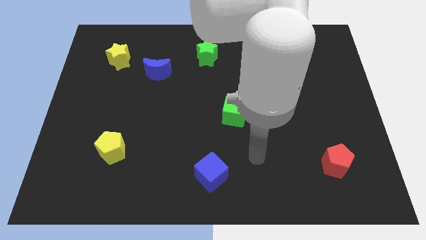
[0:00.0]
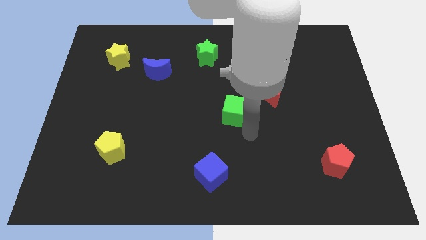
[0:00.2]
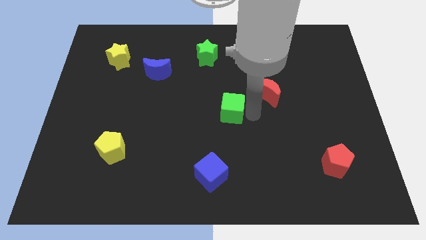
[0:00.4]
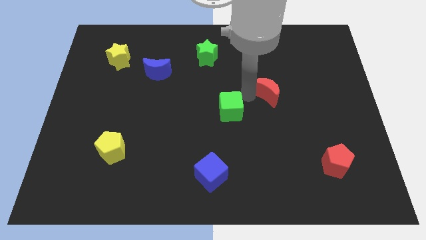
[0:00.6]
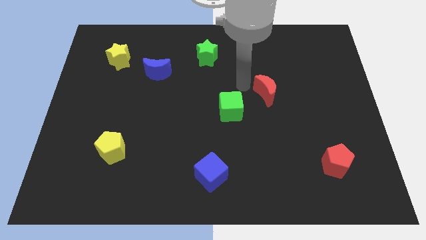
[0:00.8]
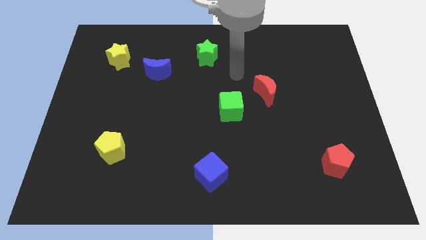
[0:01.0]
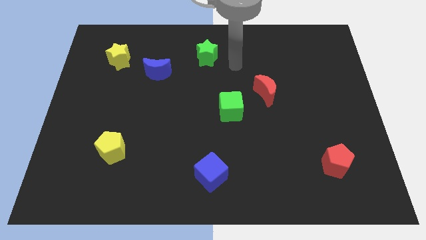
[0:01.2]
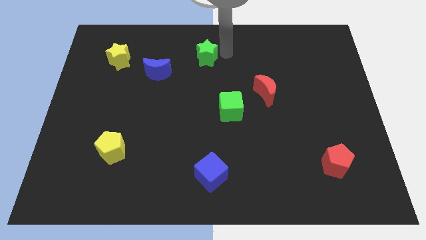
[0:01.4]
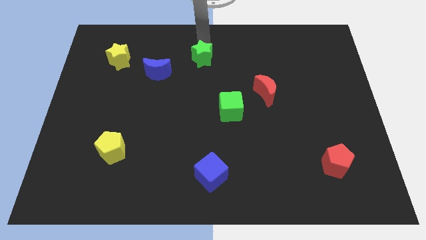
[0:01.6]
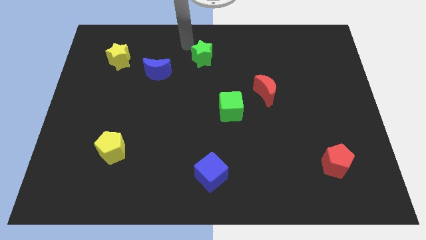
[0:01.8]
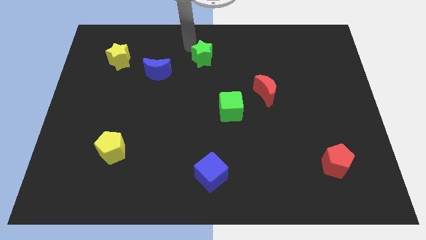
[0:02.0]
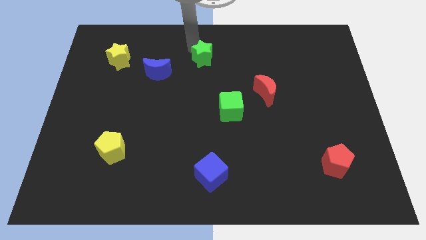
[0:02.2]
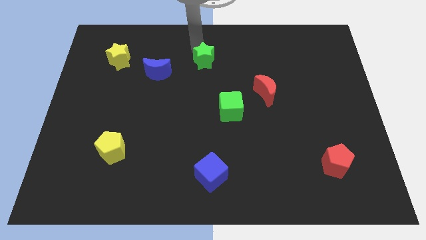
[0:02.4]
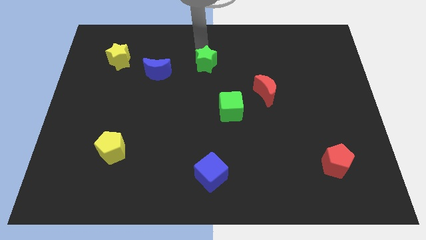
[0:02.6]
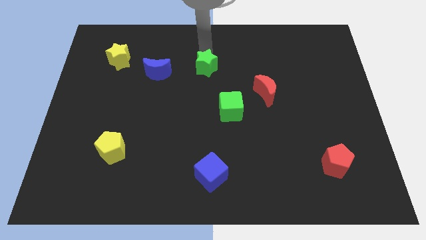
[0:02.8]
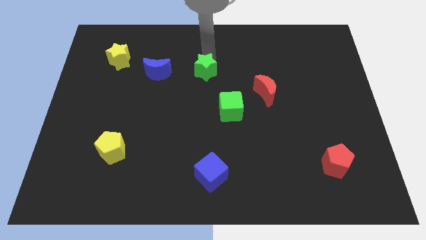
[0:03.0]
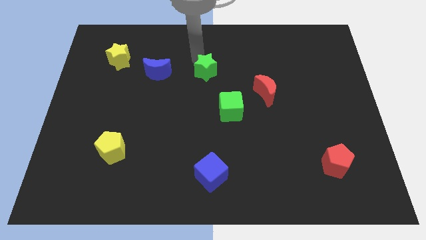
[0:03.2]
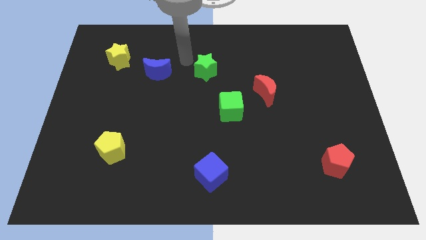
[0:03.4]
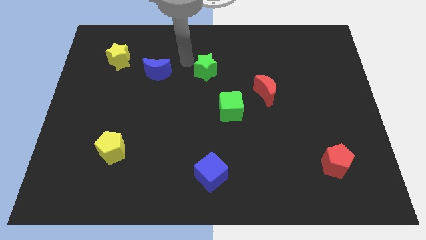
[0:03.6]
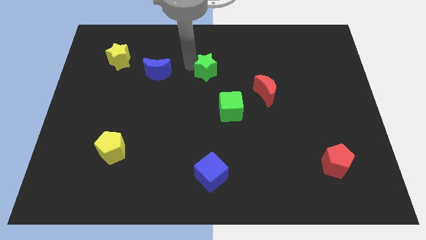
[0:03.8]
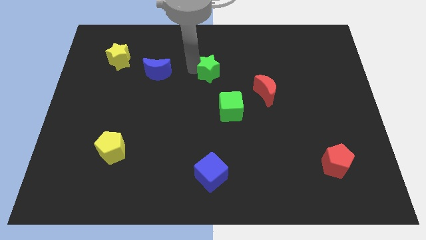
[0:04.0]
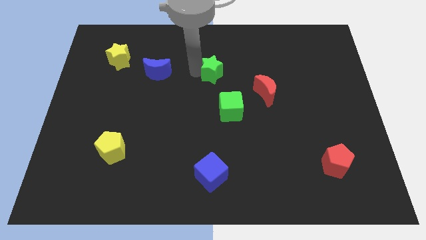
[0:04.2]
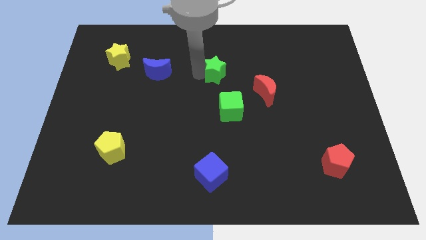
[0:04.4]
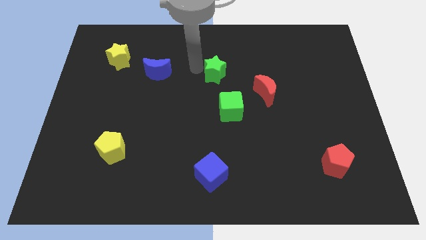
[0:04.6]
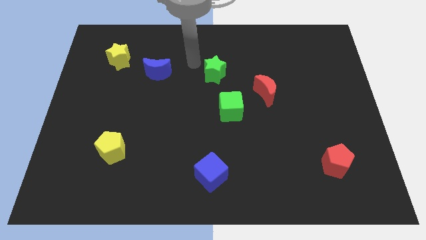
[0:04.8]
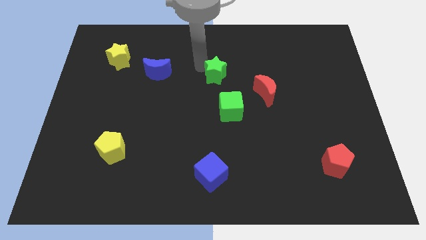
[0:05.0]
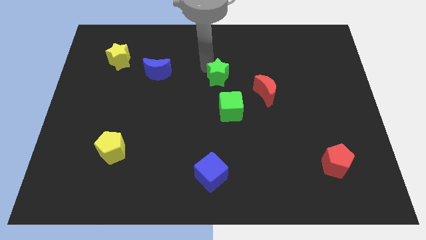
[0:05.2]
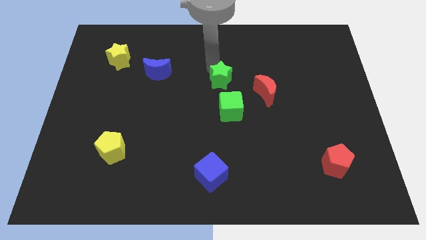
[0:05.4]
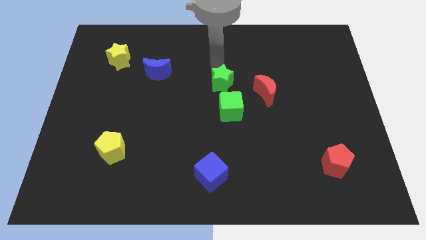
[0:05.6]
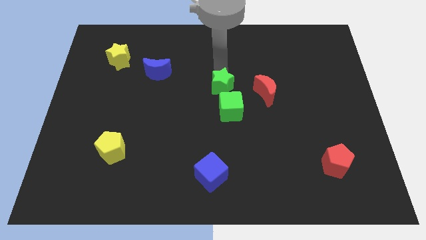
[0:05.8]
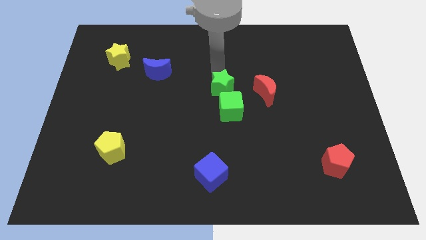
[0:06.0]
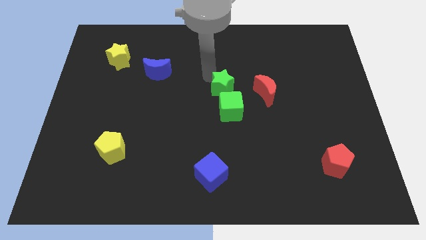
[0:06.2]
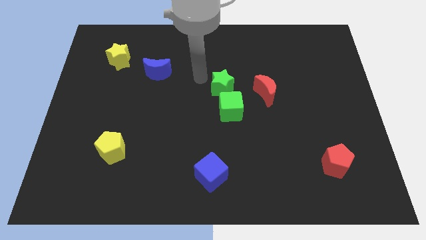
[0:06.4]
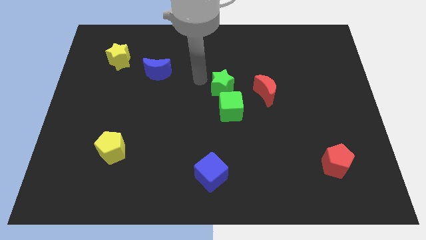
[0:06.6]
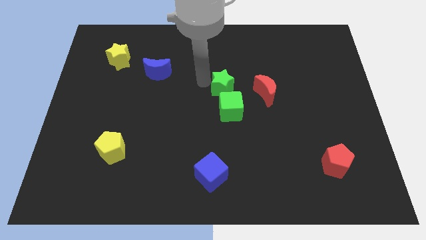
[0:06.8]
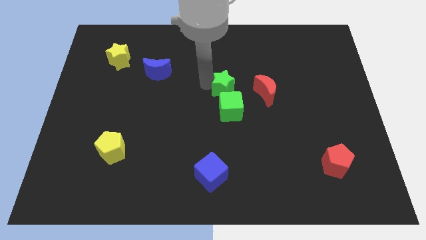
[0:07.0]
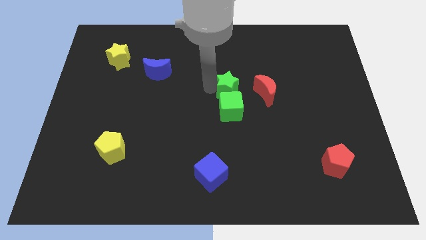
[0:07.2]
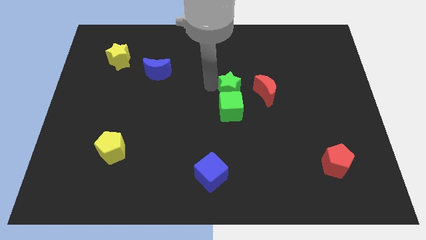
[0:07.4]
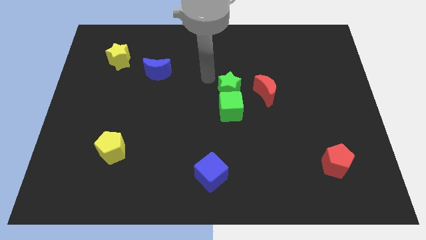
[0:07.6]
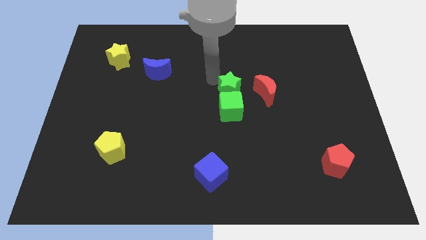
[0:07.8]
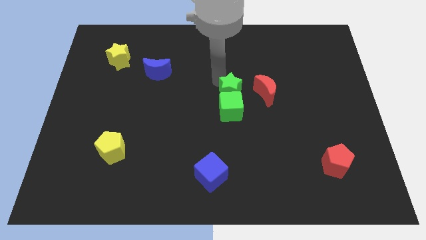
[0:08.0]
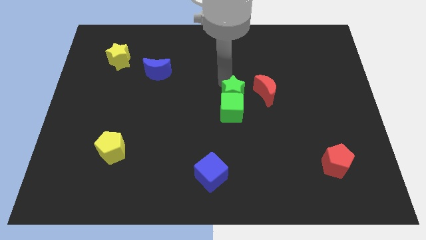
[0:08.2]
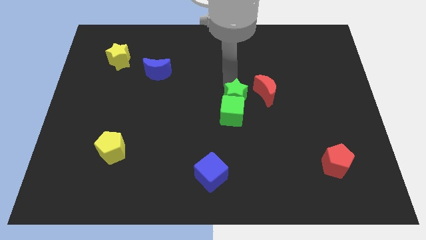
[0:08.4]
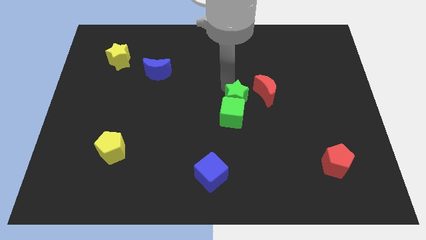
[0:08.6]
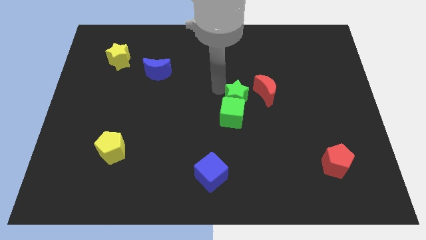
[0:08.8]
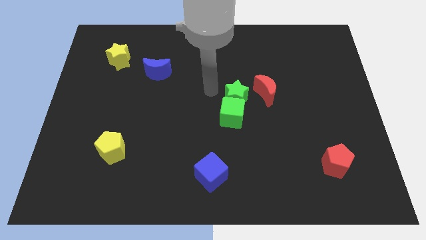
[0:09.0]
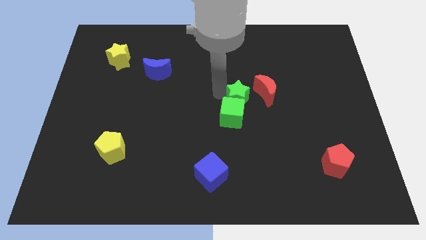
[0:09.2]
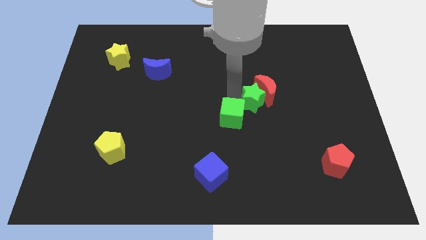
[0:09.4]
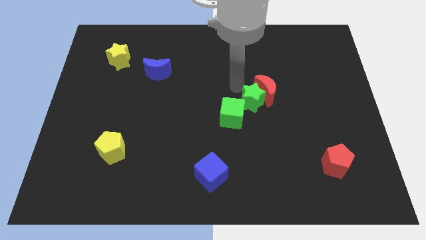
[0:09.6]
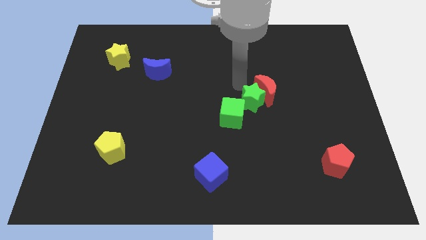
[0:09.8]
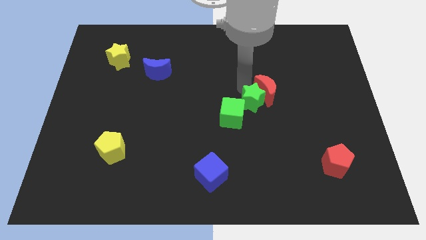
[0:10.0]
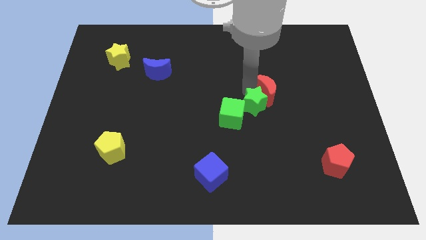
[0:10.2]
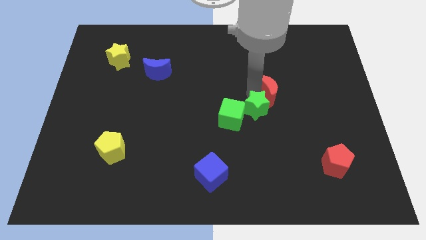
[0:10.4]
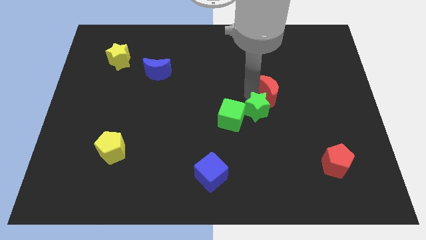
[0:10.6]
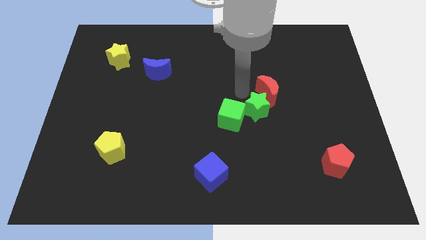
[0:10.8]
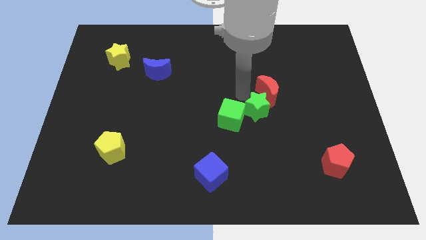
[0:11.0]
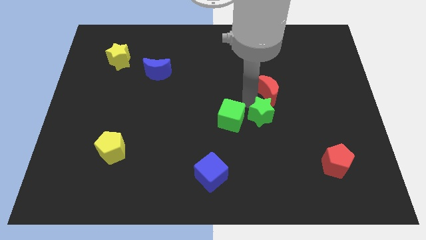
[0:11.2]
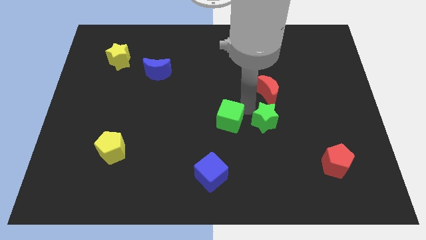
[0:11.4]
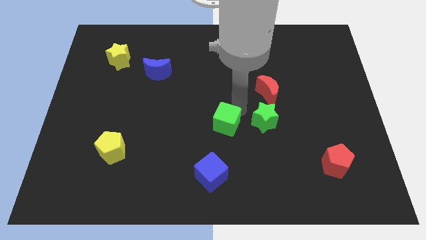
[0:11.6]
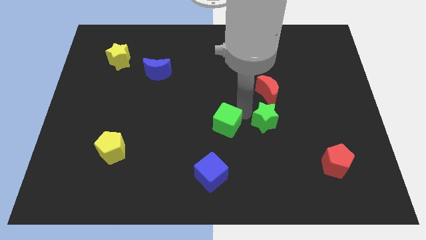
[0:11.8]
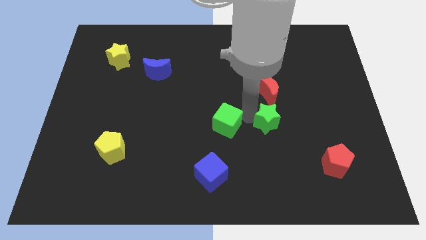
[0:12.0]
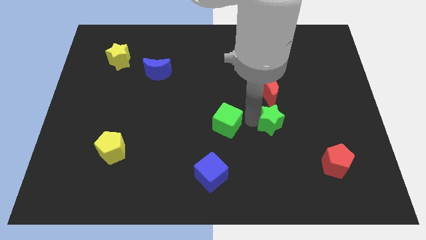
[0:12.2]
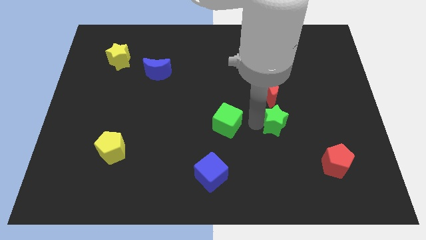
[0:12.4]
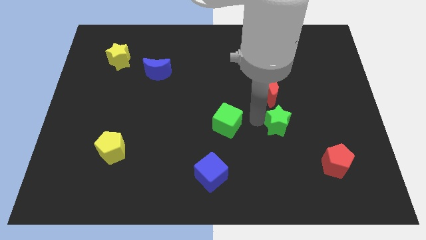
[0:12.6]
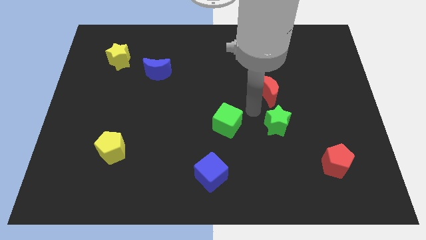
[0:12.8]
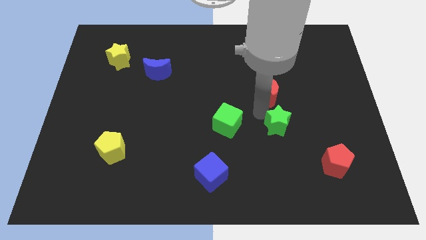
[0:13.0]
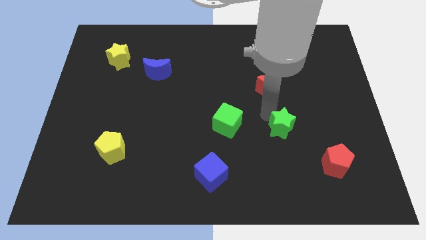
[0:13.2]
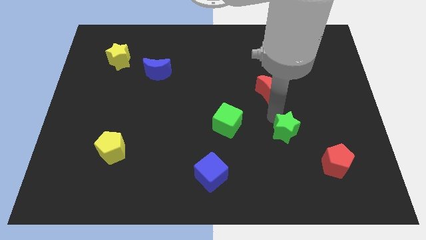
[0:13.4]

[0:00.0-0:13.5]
put the green star diagonally up and to the left of the red pentagon
